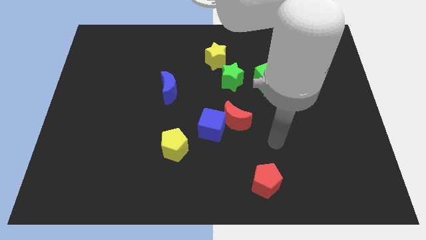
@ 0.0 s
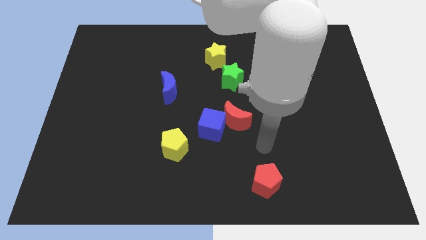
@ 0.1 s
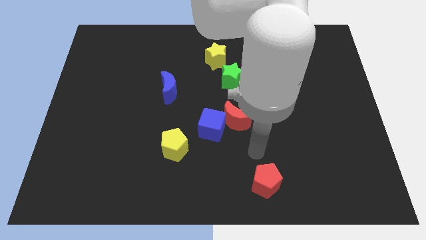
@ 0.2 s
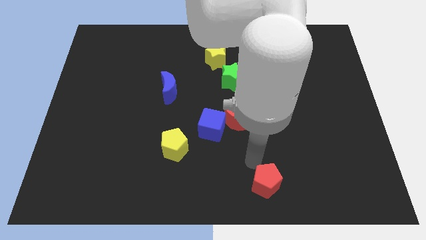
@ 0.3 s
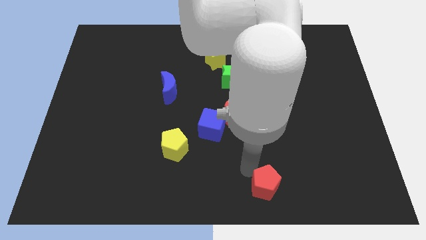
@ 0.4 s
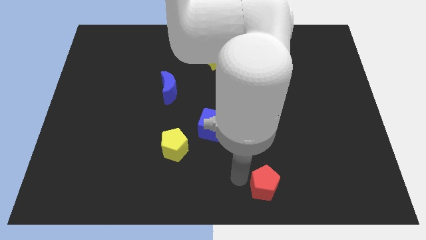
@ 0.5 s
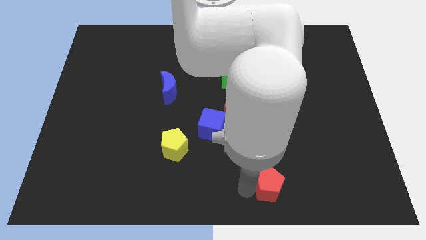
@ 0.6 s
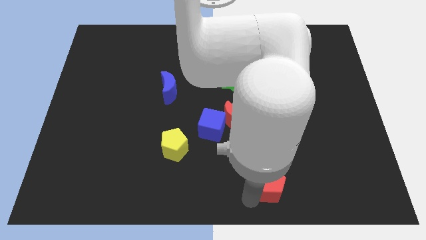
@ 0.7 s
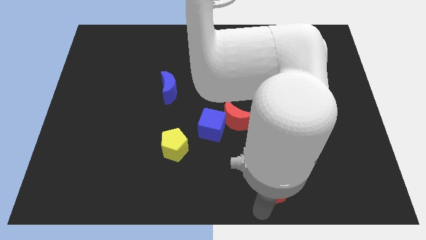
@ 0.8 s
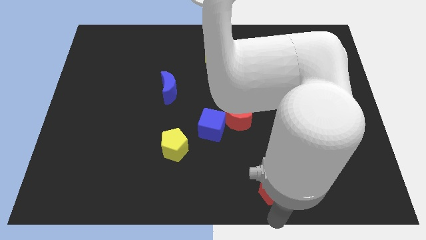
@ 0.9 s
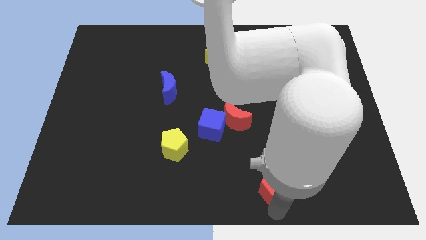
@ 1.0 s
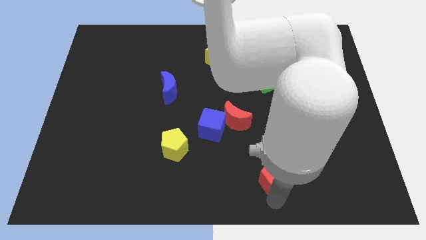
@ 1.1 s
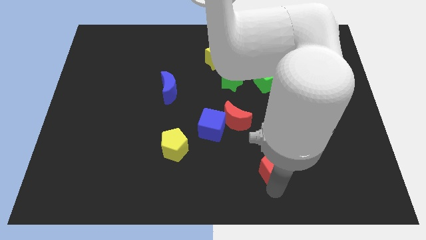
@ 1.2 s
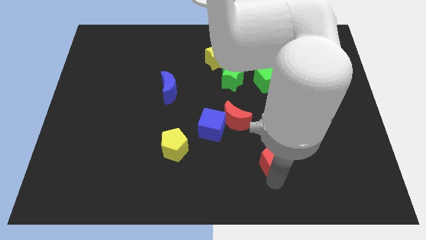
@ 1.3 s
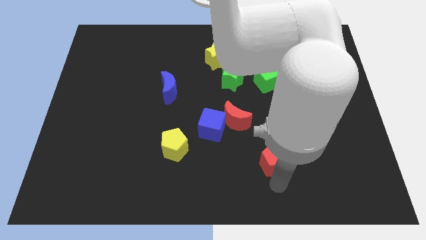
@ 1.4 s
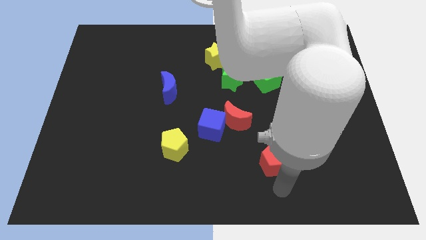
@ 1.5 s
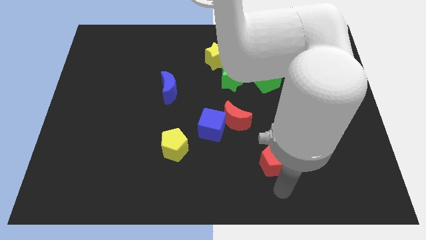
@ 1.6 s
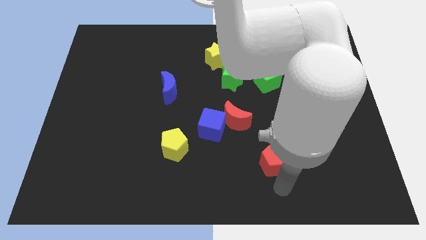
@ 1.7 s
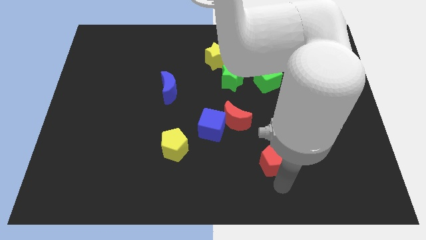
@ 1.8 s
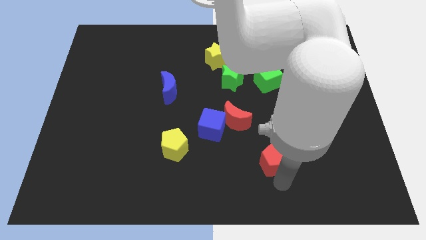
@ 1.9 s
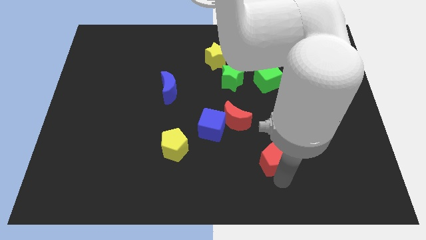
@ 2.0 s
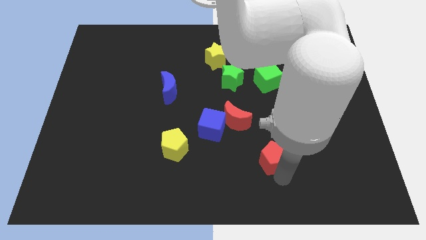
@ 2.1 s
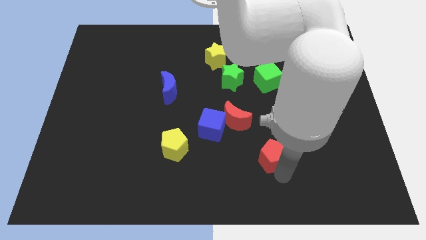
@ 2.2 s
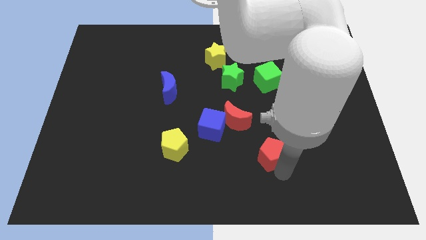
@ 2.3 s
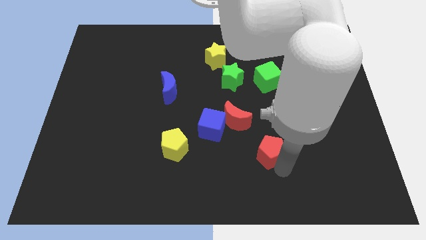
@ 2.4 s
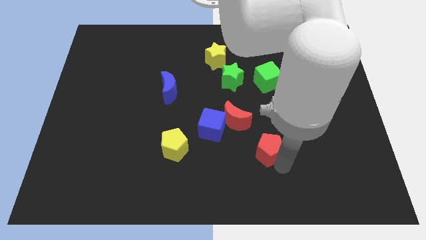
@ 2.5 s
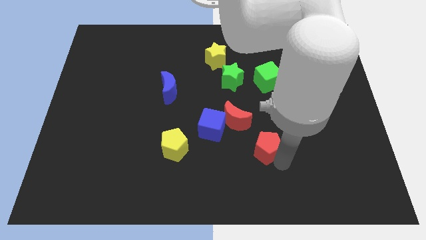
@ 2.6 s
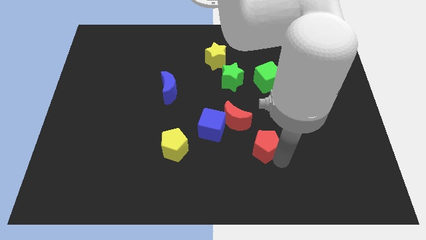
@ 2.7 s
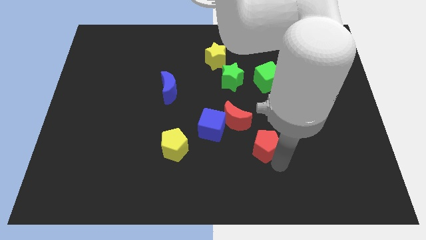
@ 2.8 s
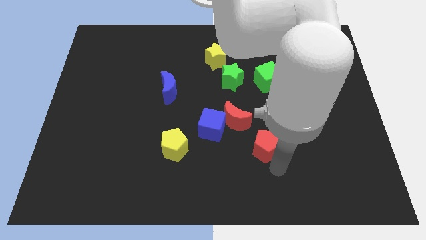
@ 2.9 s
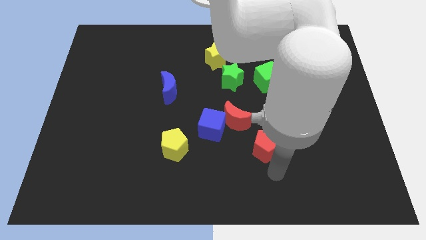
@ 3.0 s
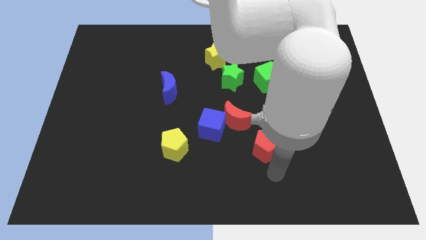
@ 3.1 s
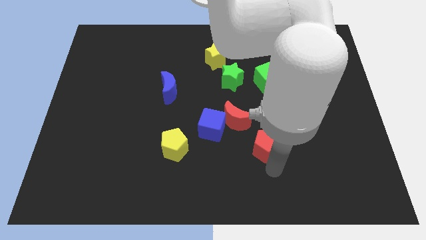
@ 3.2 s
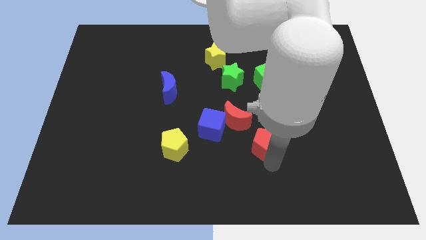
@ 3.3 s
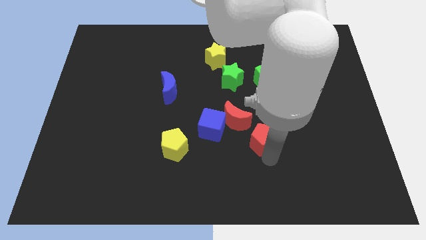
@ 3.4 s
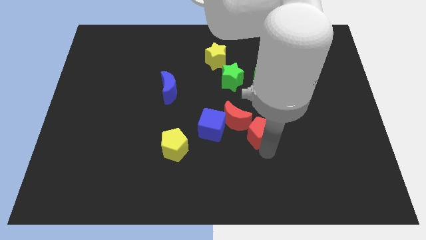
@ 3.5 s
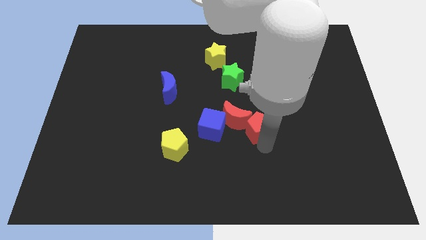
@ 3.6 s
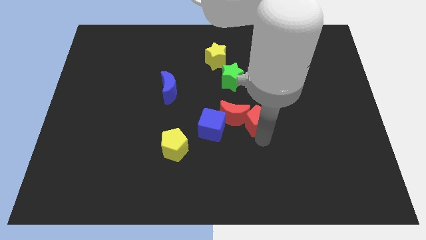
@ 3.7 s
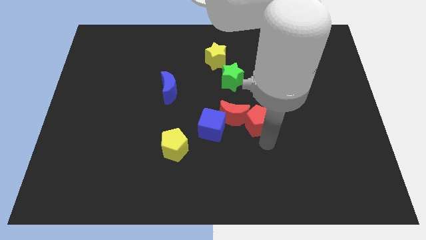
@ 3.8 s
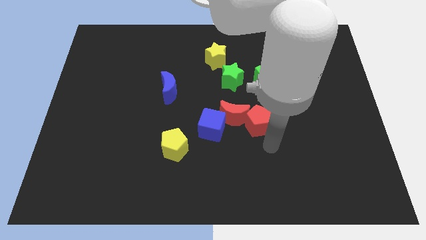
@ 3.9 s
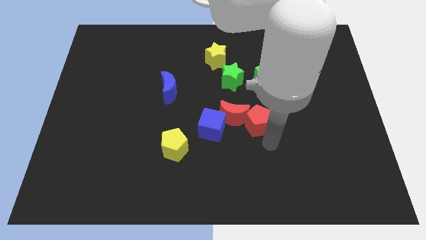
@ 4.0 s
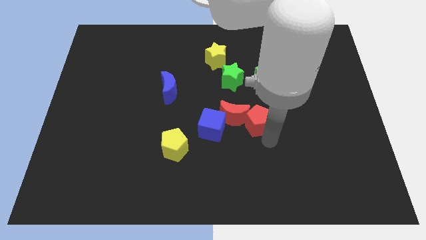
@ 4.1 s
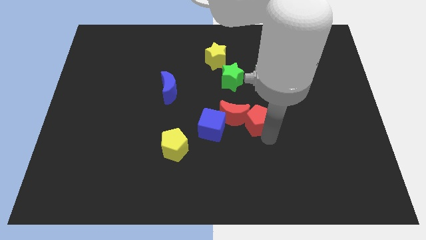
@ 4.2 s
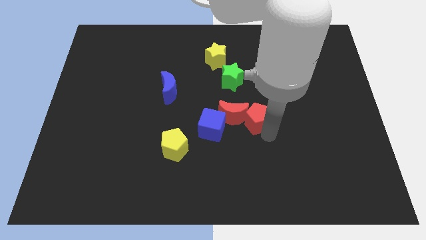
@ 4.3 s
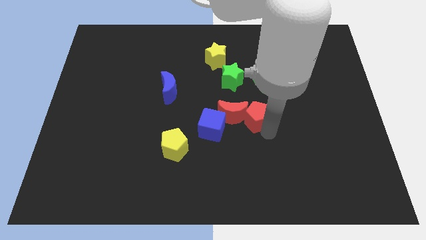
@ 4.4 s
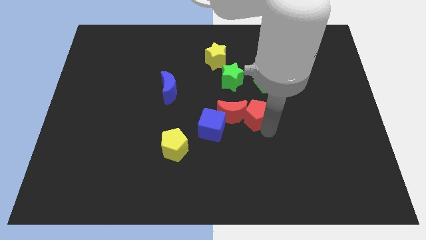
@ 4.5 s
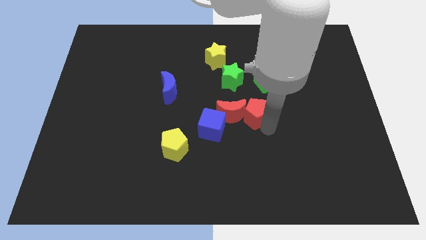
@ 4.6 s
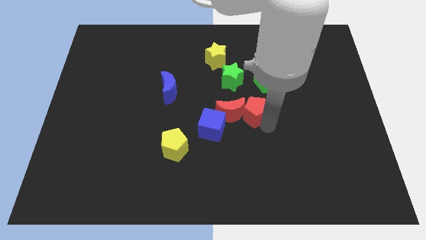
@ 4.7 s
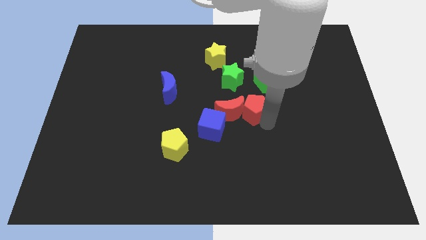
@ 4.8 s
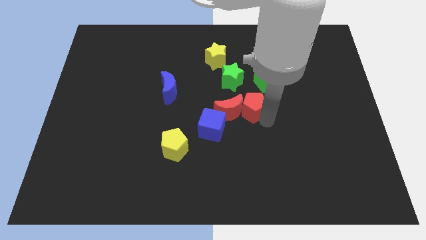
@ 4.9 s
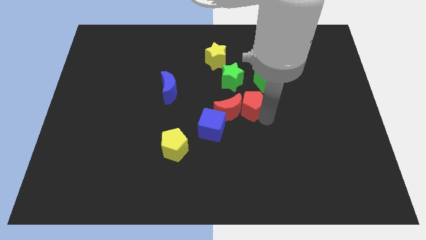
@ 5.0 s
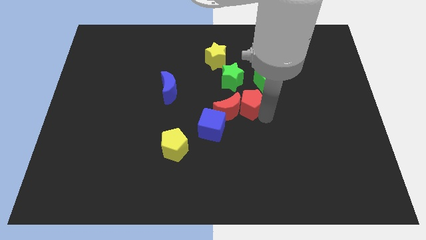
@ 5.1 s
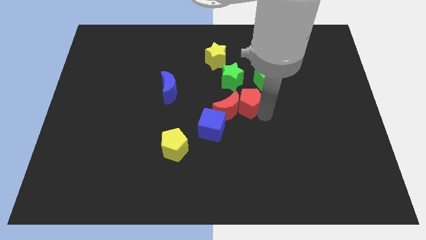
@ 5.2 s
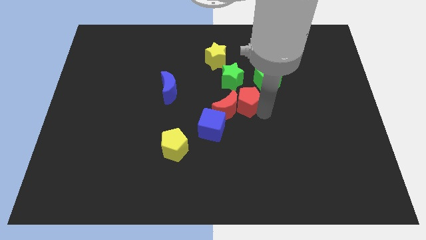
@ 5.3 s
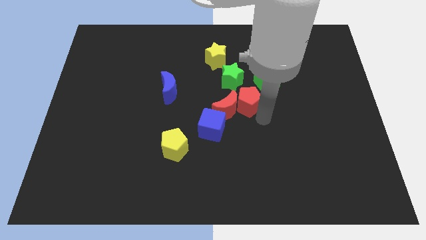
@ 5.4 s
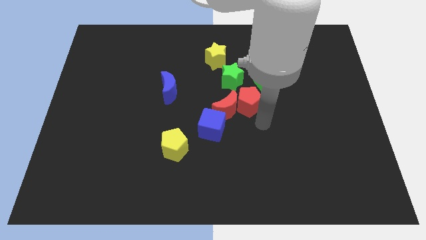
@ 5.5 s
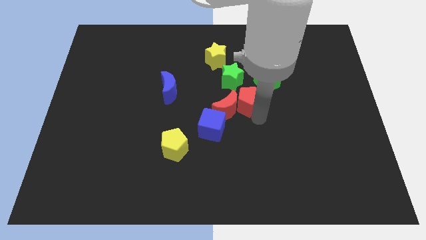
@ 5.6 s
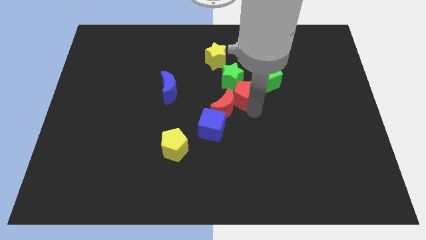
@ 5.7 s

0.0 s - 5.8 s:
push the red pentagon close to the green star

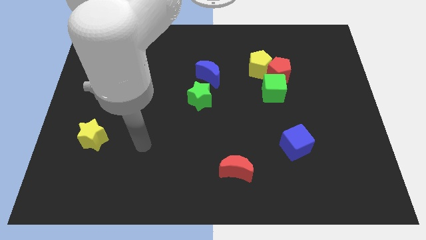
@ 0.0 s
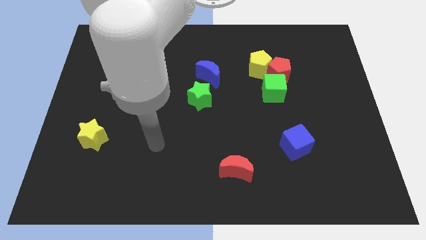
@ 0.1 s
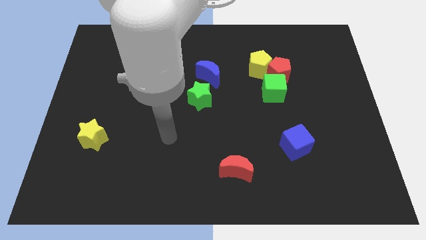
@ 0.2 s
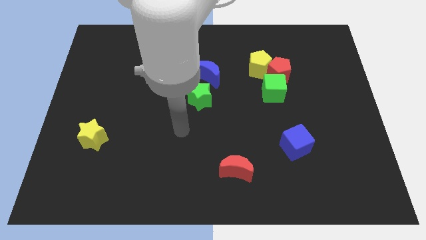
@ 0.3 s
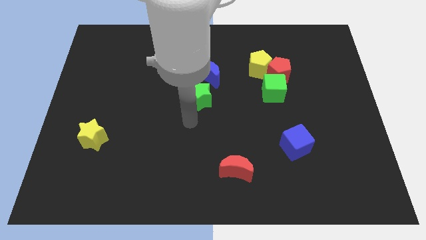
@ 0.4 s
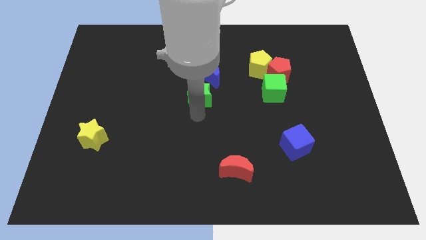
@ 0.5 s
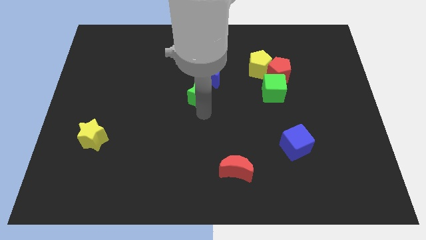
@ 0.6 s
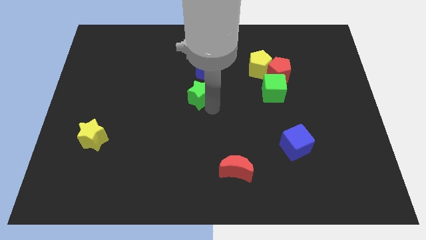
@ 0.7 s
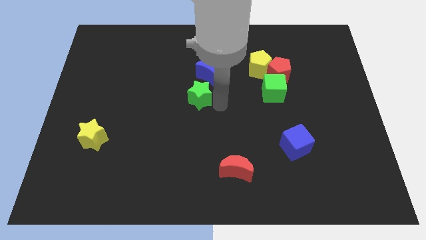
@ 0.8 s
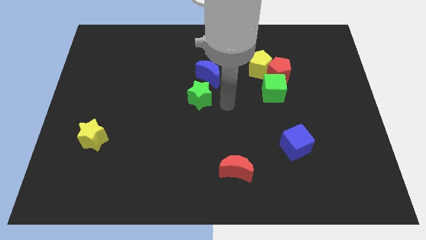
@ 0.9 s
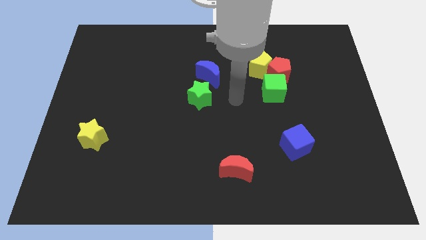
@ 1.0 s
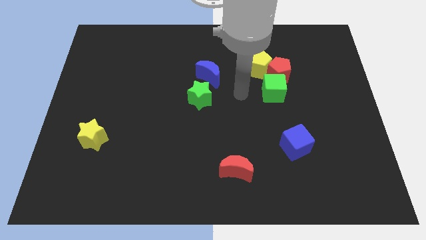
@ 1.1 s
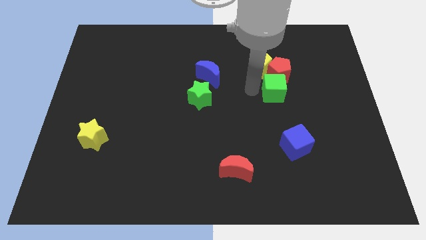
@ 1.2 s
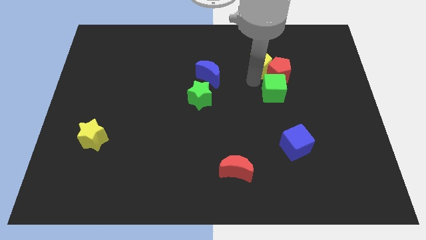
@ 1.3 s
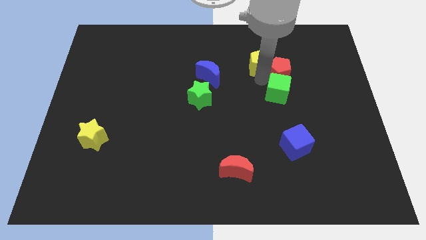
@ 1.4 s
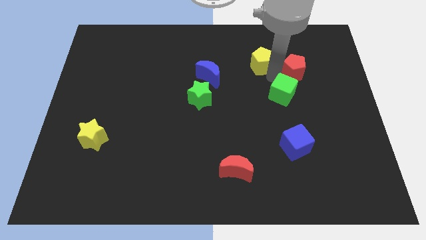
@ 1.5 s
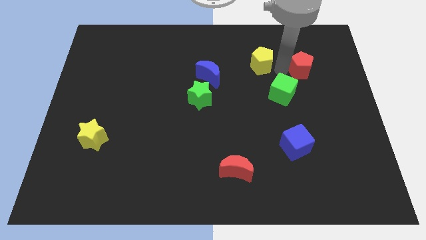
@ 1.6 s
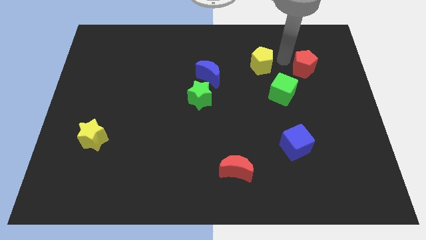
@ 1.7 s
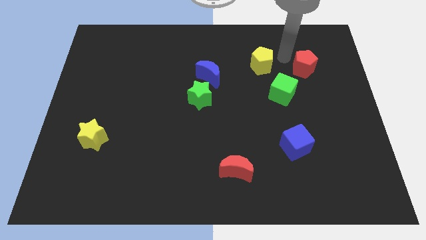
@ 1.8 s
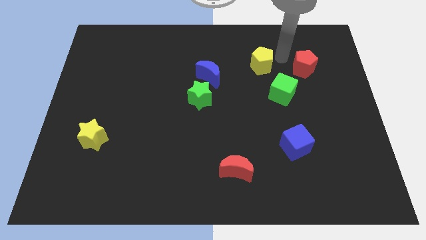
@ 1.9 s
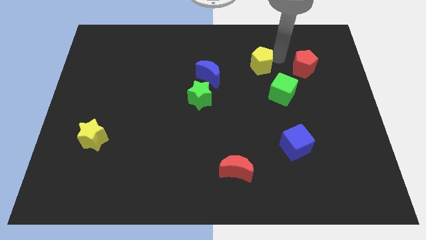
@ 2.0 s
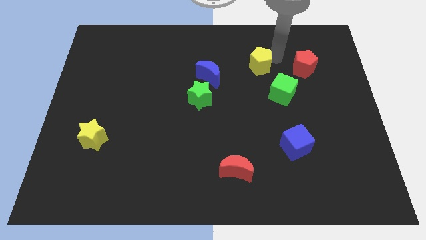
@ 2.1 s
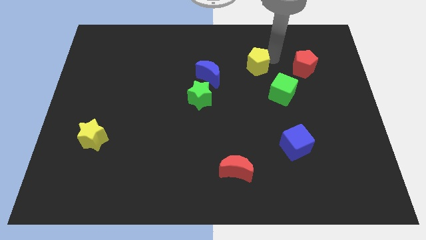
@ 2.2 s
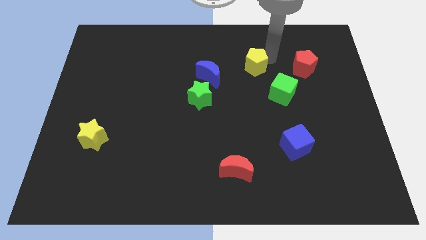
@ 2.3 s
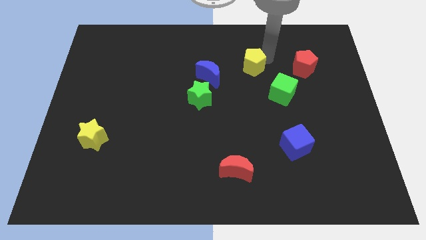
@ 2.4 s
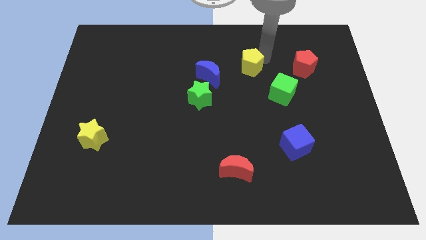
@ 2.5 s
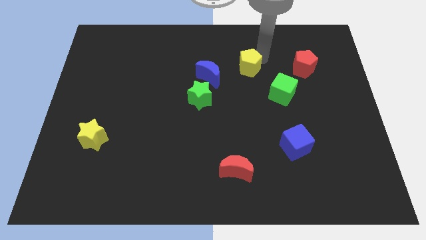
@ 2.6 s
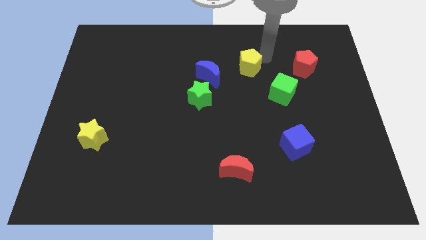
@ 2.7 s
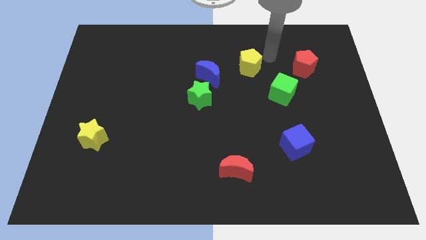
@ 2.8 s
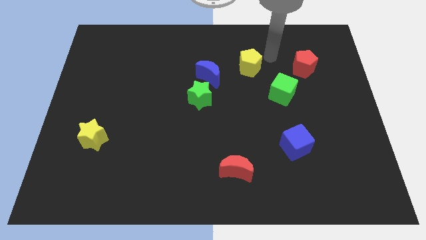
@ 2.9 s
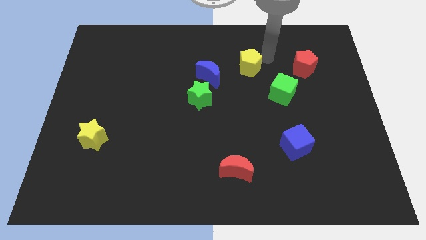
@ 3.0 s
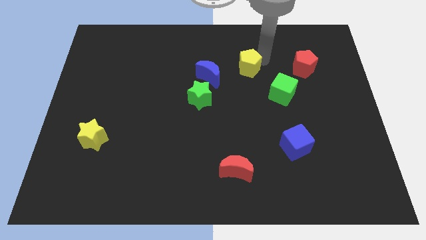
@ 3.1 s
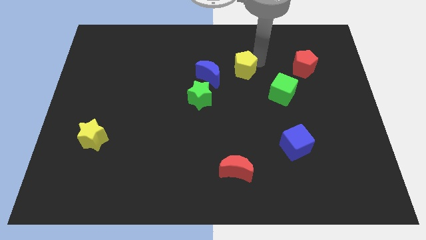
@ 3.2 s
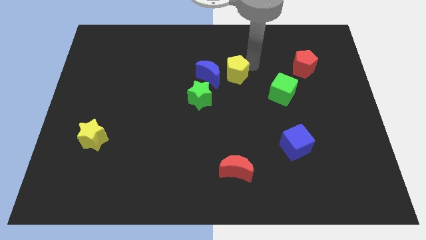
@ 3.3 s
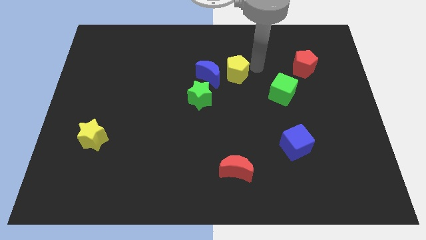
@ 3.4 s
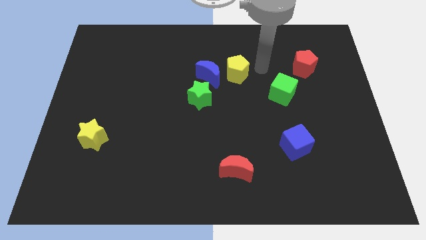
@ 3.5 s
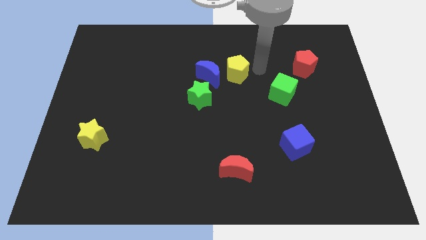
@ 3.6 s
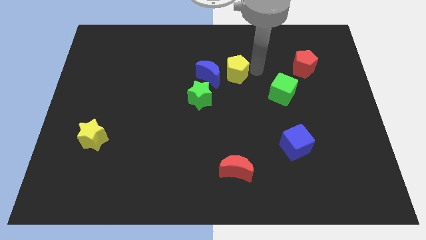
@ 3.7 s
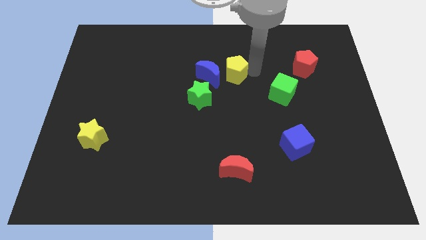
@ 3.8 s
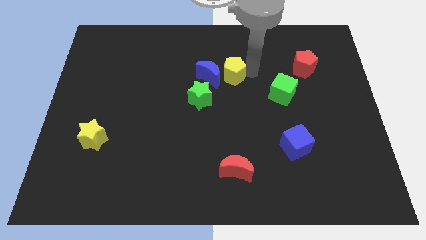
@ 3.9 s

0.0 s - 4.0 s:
put the yellow pentagon next to the blue moon
